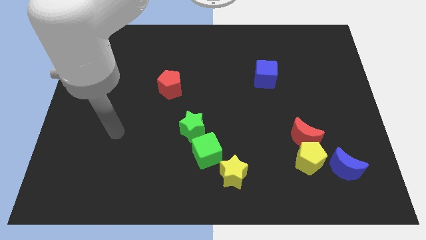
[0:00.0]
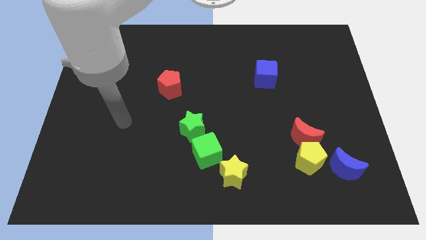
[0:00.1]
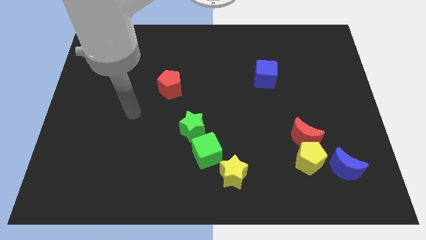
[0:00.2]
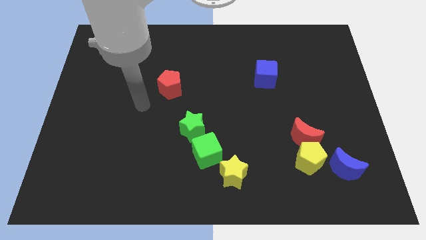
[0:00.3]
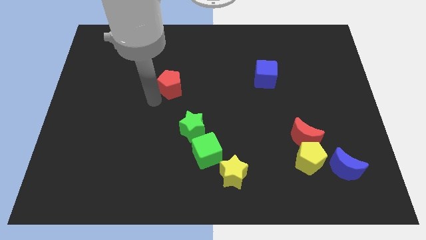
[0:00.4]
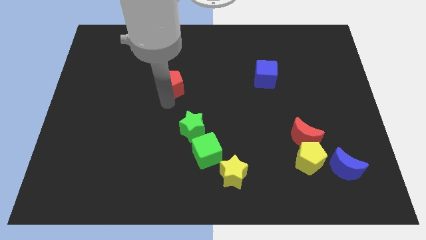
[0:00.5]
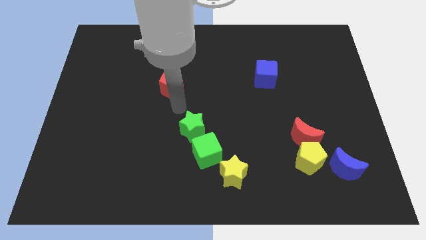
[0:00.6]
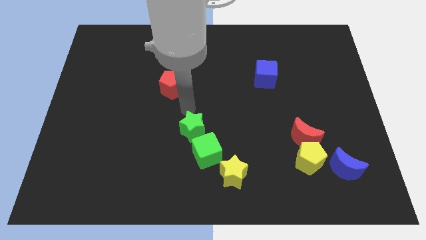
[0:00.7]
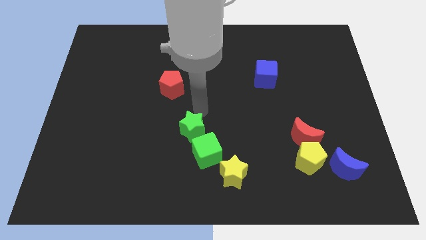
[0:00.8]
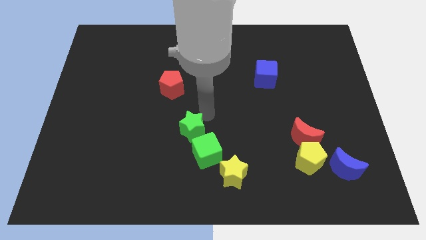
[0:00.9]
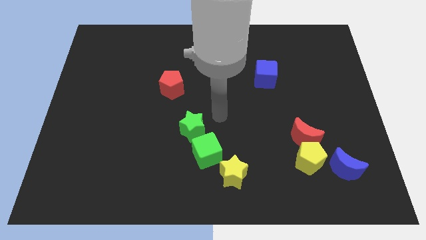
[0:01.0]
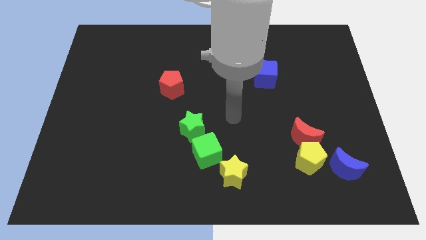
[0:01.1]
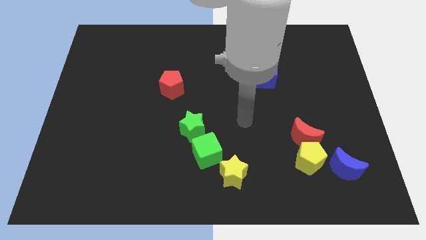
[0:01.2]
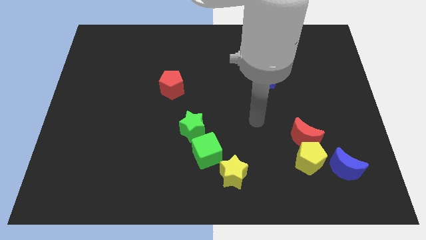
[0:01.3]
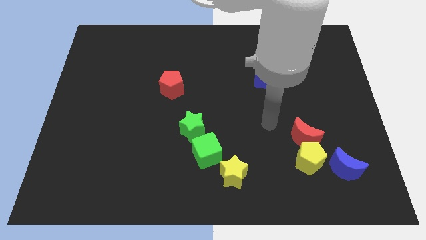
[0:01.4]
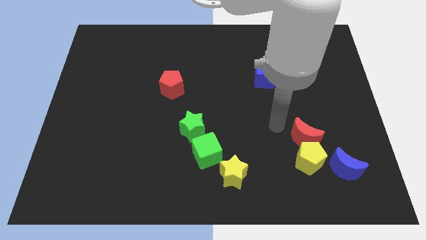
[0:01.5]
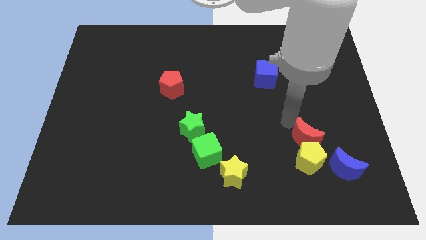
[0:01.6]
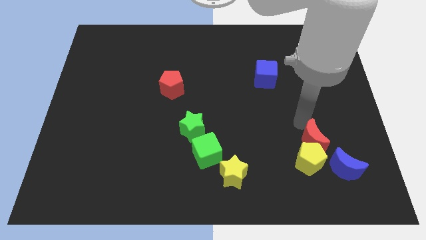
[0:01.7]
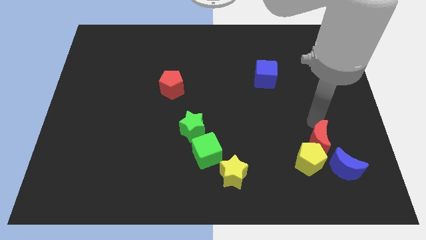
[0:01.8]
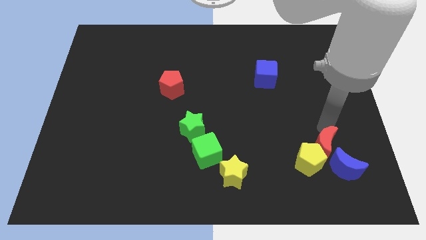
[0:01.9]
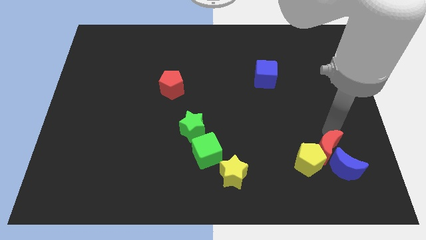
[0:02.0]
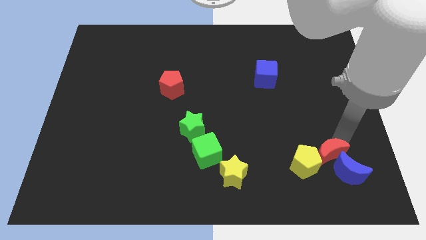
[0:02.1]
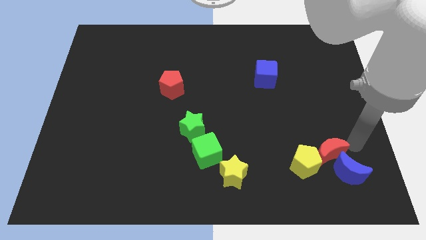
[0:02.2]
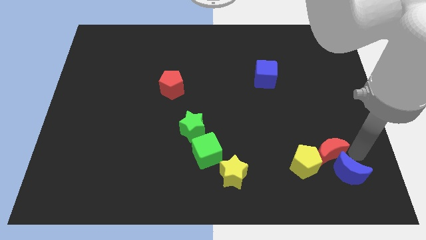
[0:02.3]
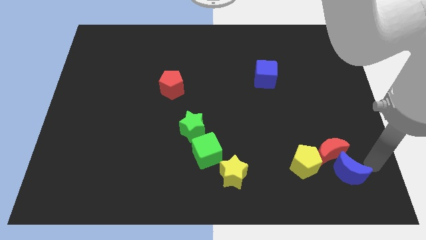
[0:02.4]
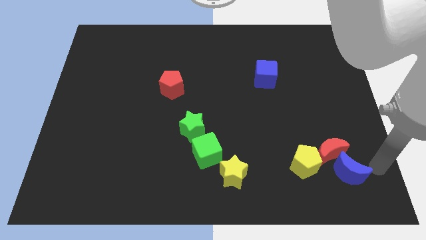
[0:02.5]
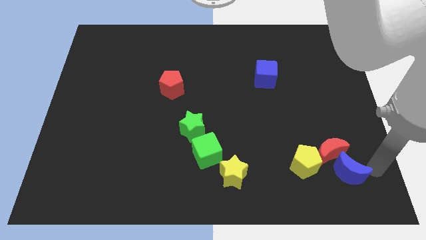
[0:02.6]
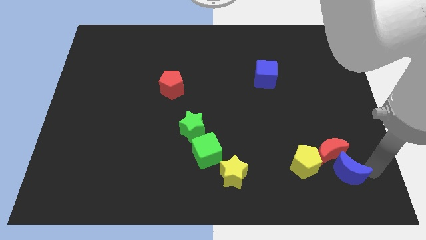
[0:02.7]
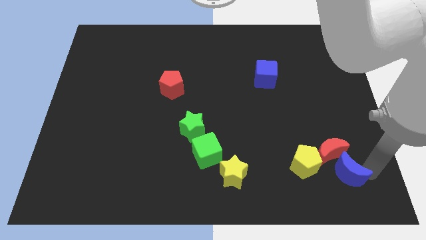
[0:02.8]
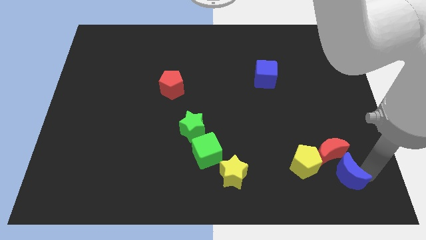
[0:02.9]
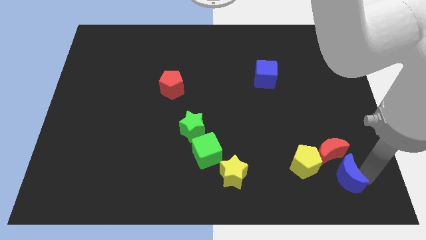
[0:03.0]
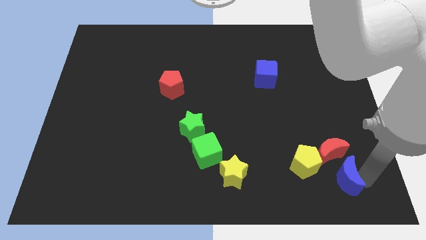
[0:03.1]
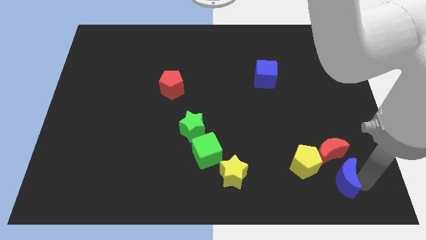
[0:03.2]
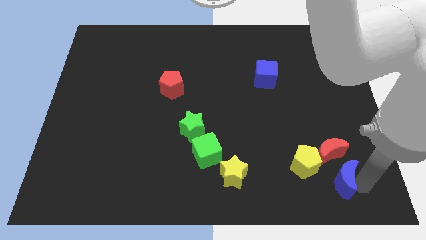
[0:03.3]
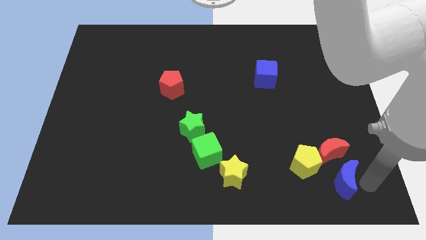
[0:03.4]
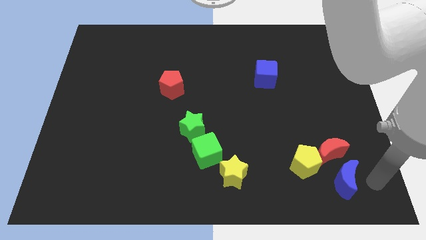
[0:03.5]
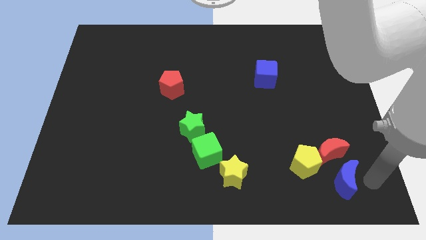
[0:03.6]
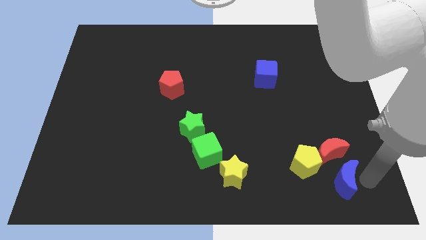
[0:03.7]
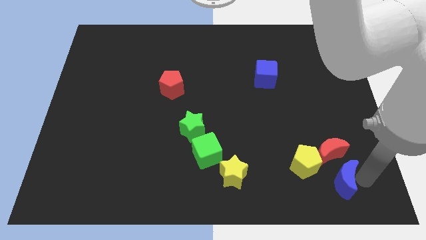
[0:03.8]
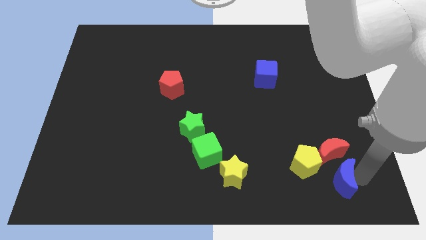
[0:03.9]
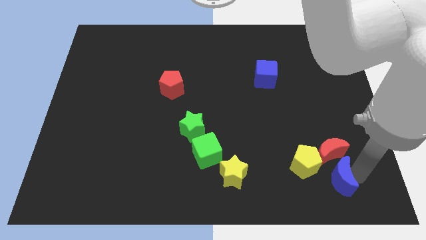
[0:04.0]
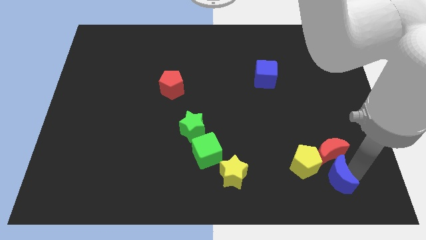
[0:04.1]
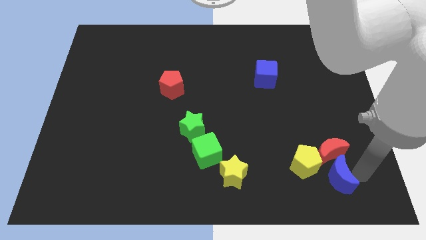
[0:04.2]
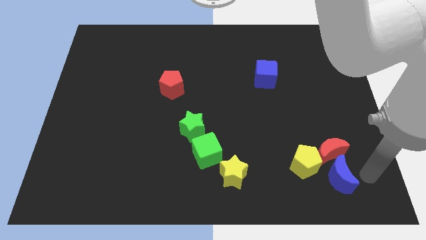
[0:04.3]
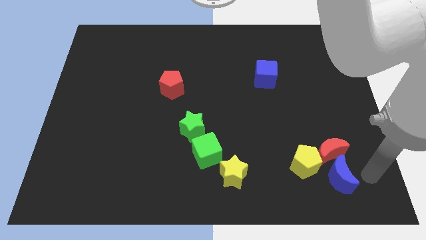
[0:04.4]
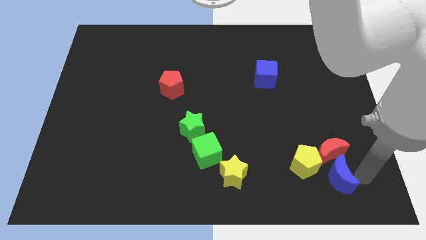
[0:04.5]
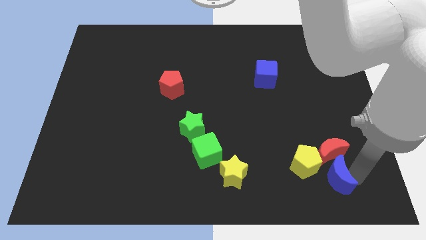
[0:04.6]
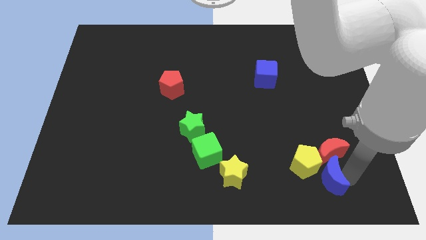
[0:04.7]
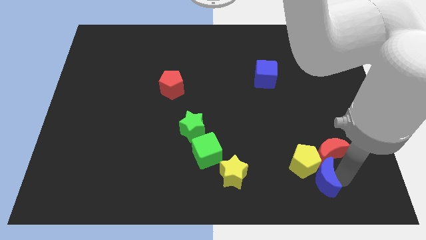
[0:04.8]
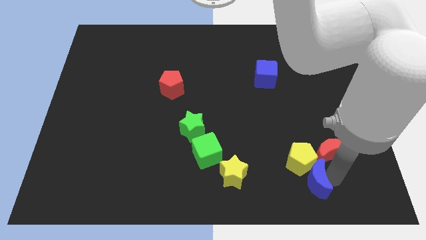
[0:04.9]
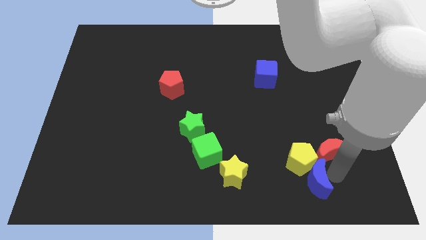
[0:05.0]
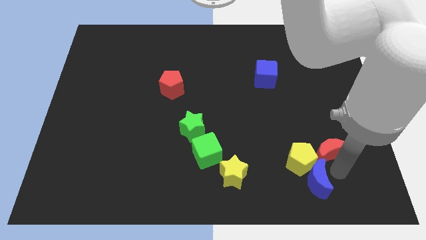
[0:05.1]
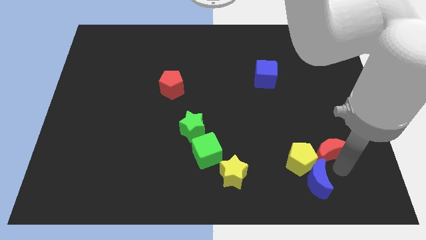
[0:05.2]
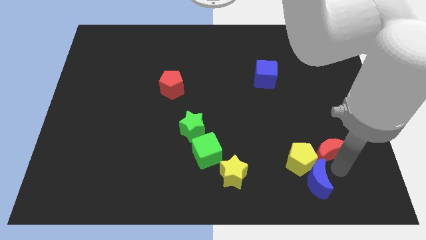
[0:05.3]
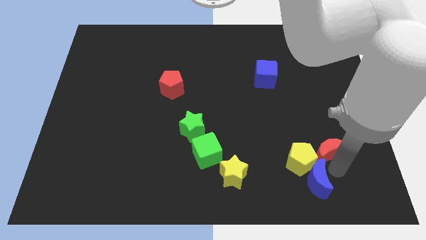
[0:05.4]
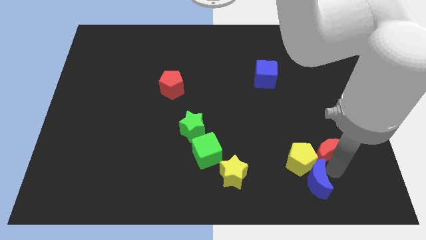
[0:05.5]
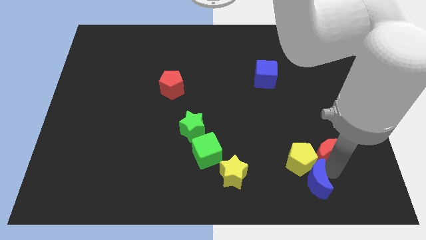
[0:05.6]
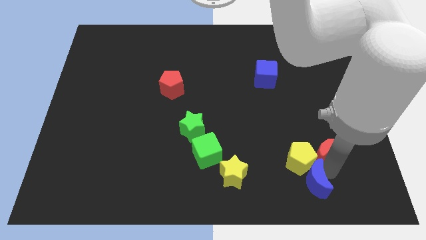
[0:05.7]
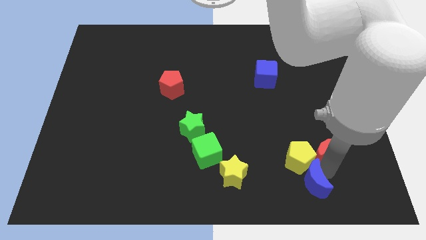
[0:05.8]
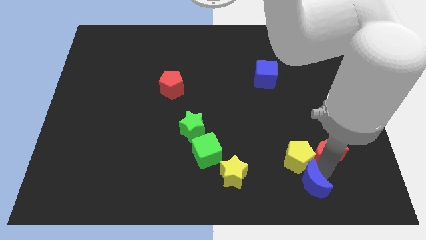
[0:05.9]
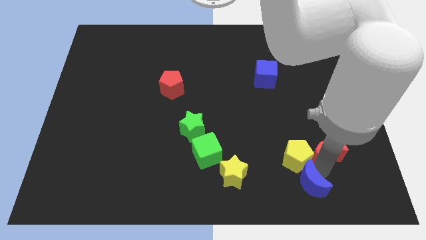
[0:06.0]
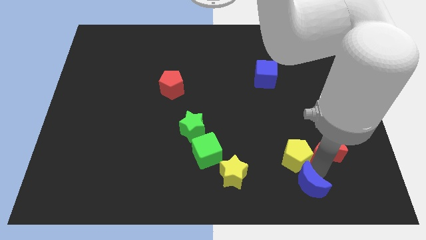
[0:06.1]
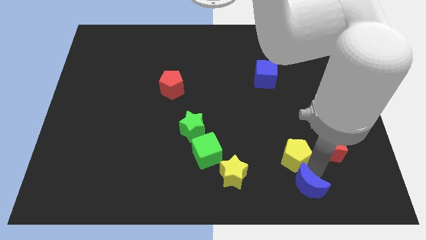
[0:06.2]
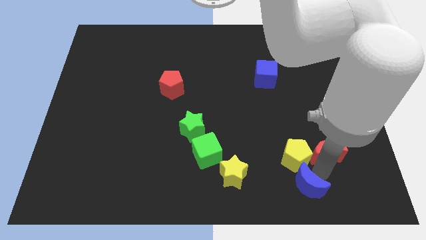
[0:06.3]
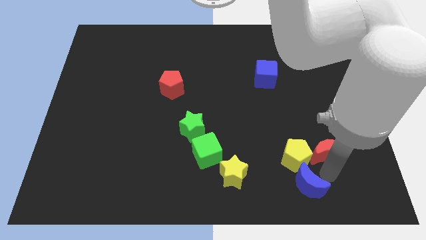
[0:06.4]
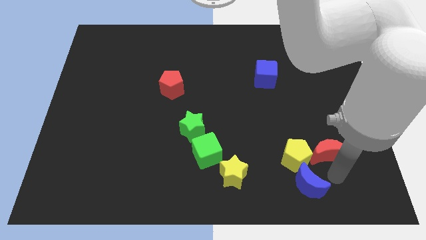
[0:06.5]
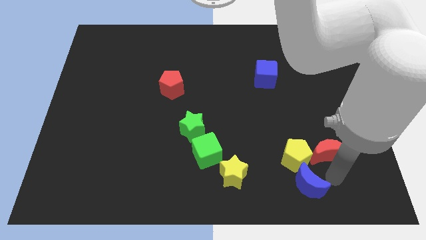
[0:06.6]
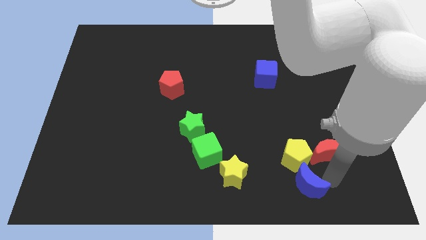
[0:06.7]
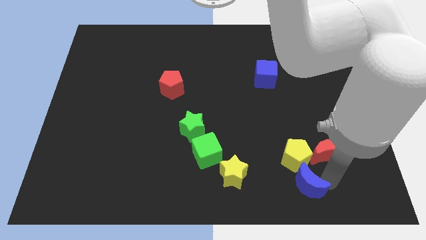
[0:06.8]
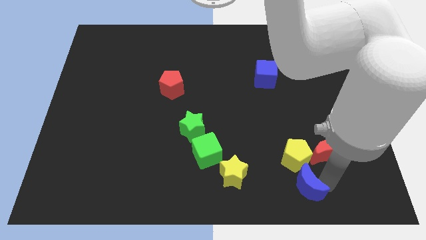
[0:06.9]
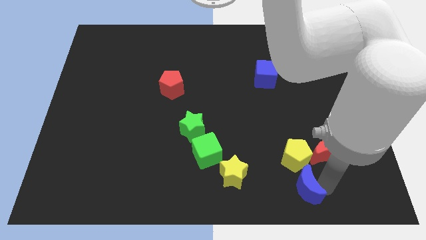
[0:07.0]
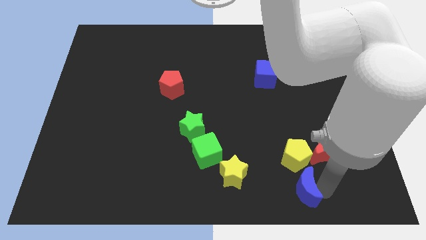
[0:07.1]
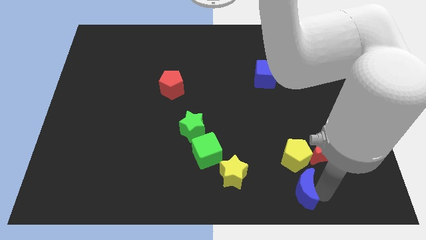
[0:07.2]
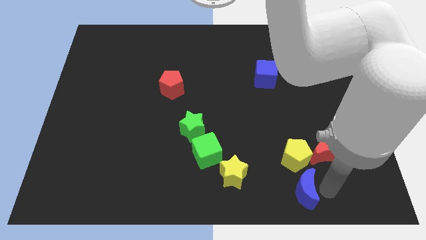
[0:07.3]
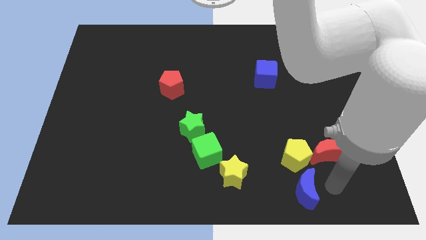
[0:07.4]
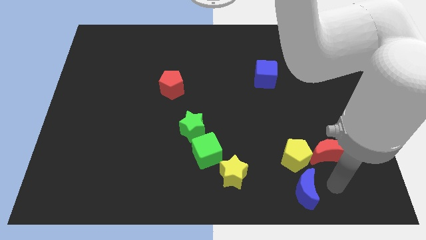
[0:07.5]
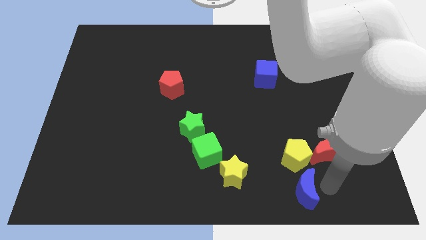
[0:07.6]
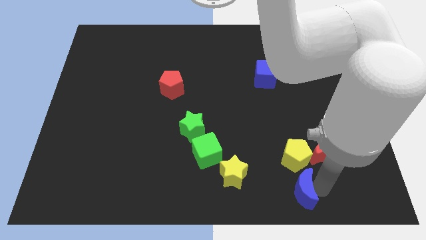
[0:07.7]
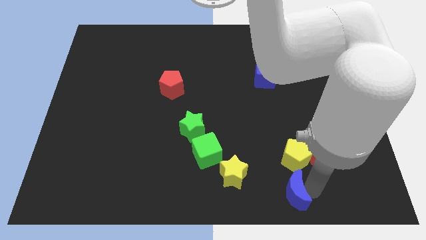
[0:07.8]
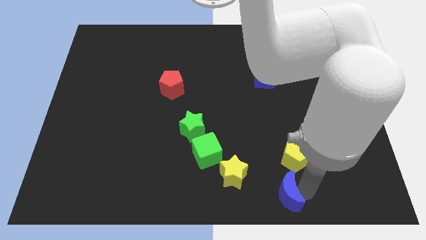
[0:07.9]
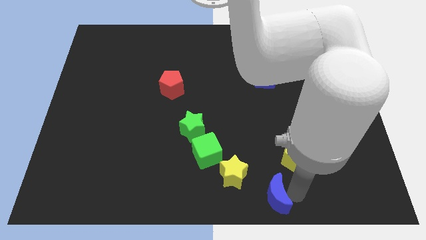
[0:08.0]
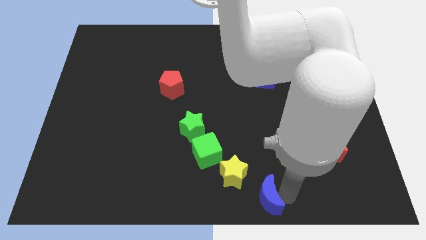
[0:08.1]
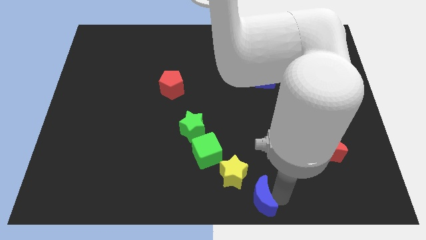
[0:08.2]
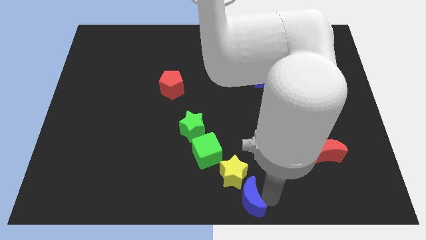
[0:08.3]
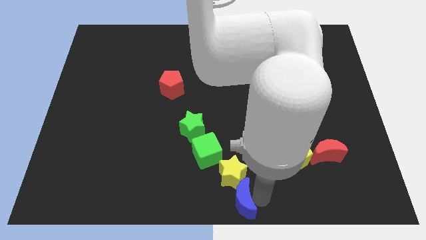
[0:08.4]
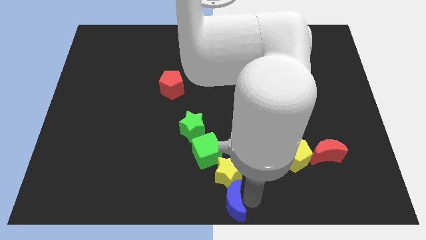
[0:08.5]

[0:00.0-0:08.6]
move the blue moon left

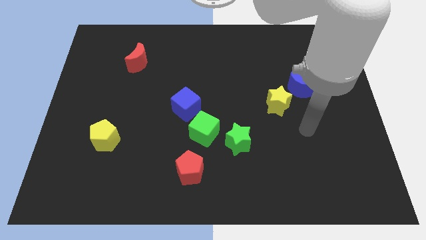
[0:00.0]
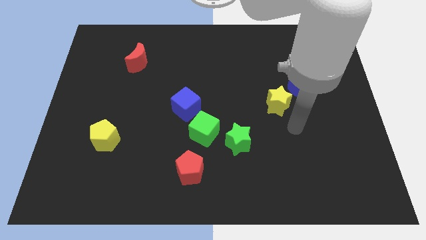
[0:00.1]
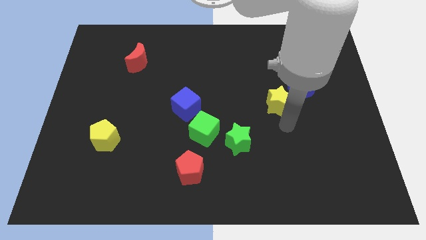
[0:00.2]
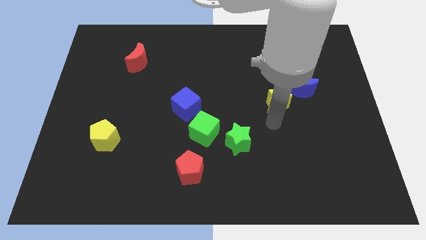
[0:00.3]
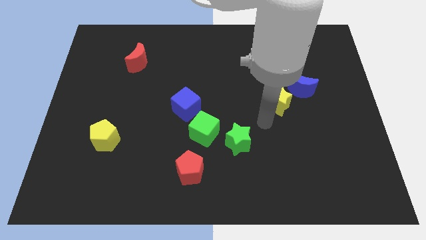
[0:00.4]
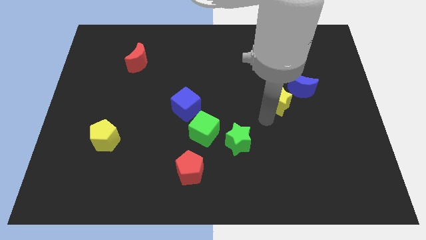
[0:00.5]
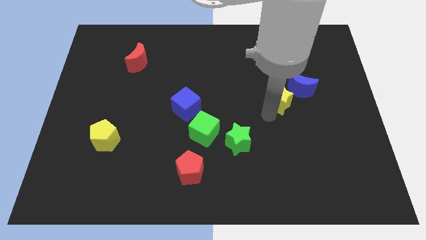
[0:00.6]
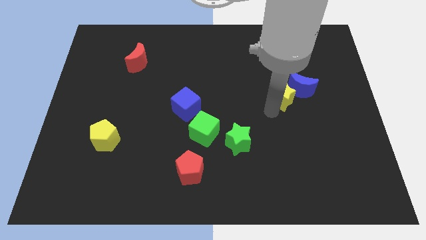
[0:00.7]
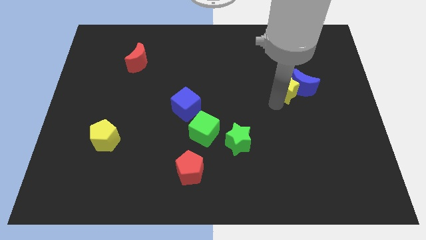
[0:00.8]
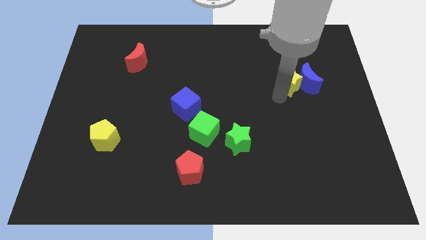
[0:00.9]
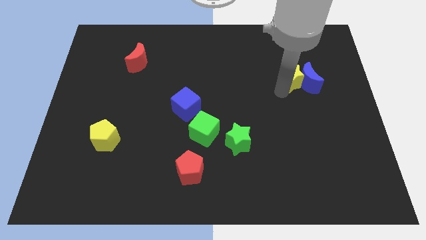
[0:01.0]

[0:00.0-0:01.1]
move the yellow star slightly upwards and then to the right
